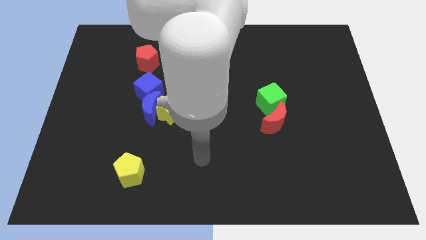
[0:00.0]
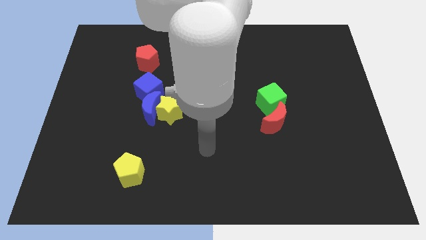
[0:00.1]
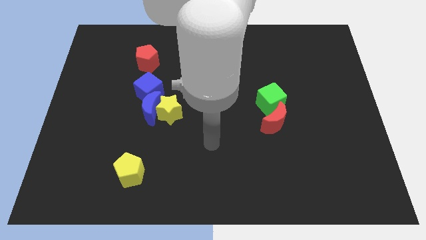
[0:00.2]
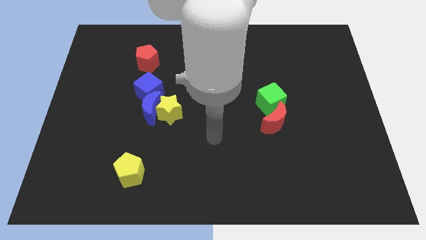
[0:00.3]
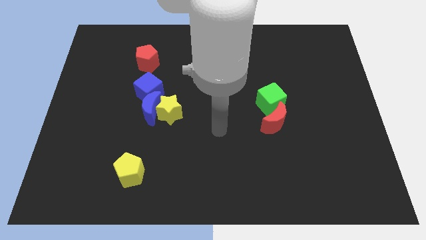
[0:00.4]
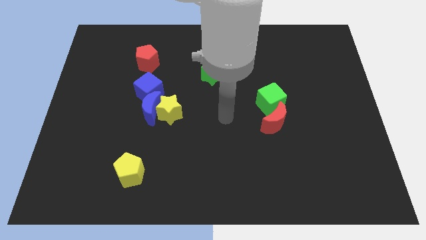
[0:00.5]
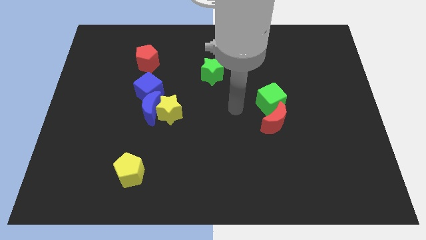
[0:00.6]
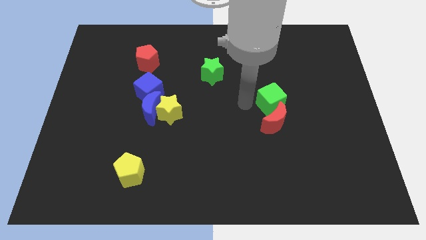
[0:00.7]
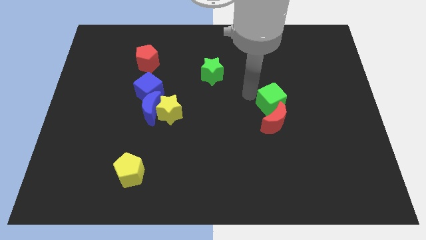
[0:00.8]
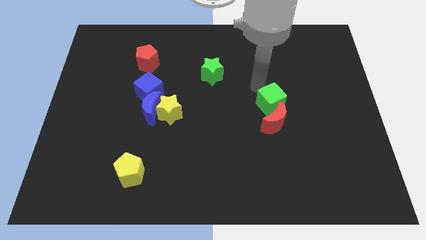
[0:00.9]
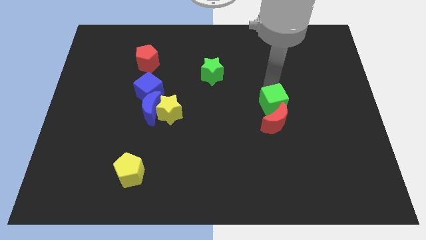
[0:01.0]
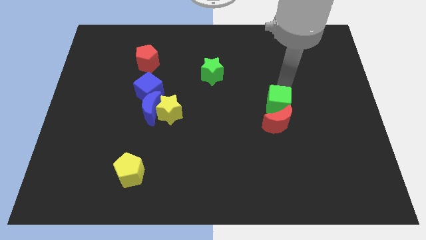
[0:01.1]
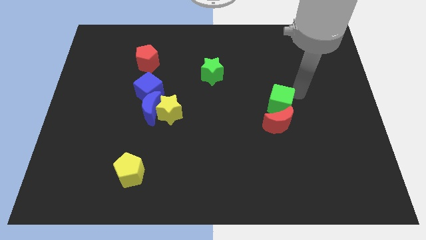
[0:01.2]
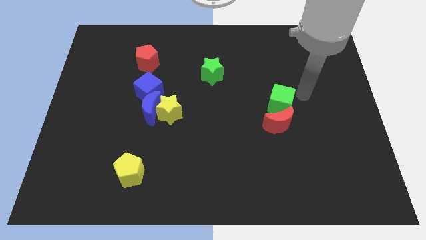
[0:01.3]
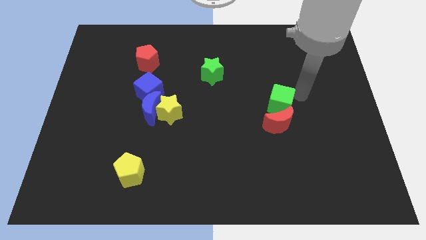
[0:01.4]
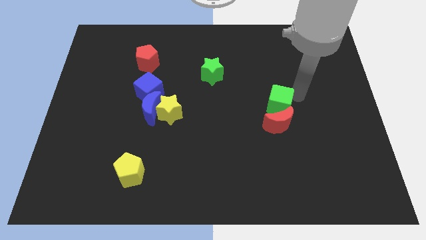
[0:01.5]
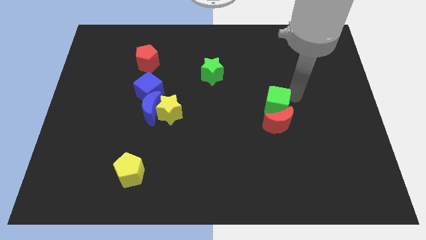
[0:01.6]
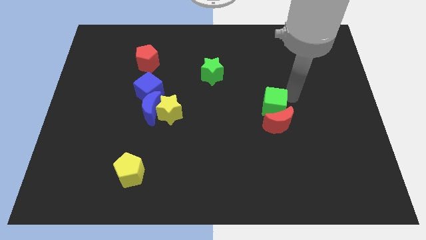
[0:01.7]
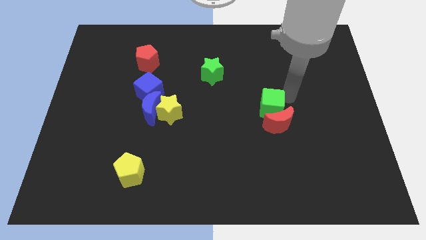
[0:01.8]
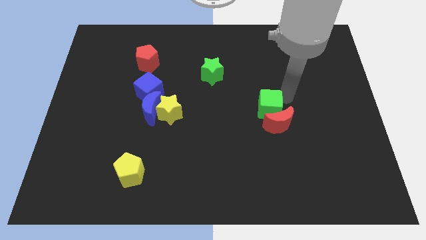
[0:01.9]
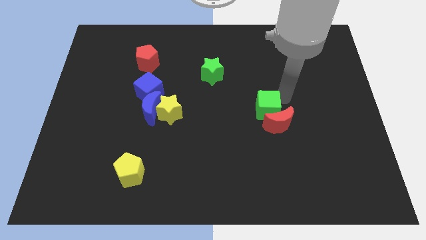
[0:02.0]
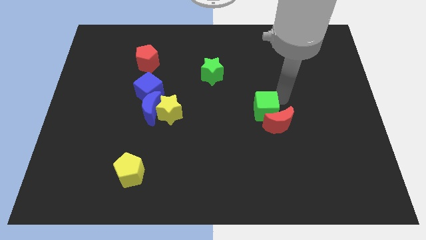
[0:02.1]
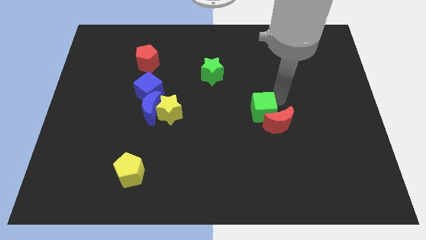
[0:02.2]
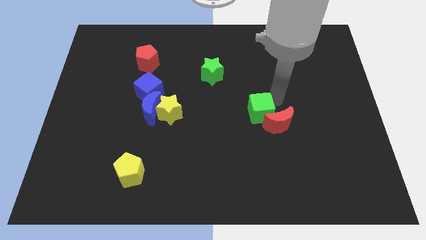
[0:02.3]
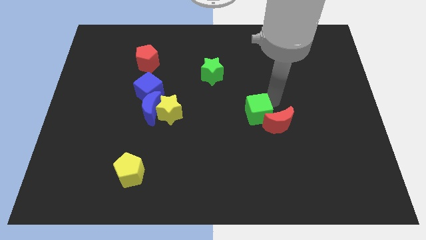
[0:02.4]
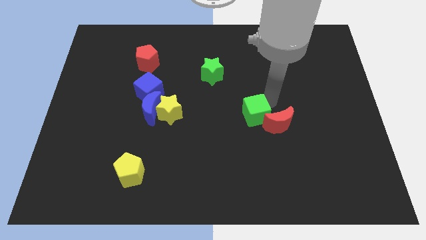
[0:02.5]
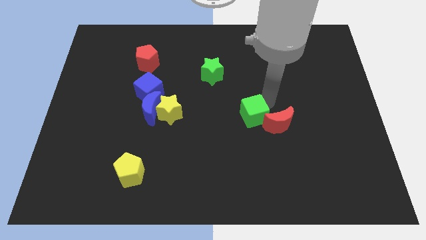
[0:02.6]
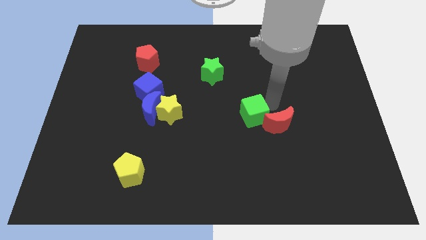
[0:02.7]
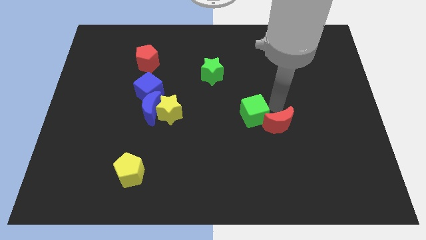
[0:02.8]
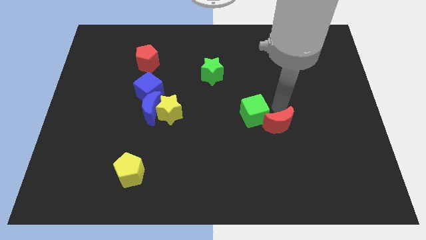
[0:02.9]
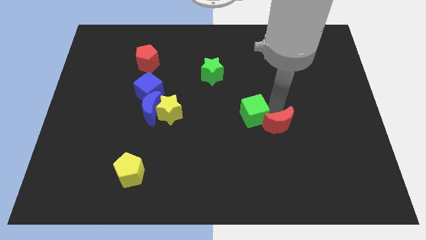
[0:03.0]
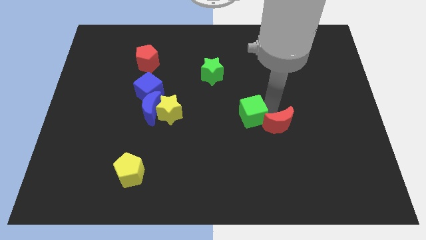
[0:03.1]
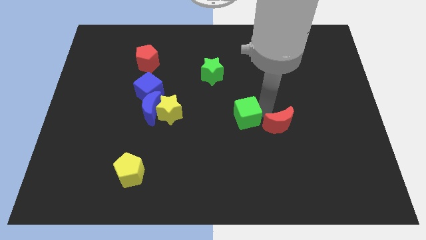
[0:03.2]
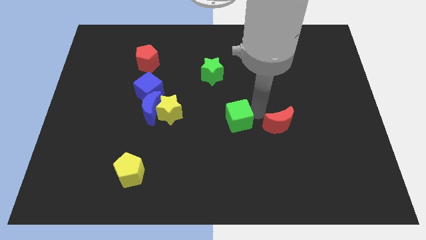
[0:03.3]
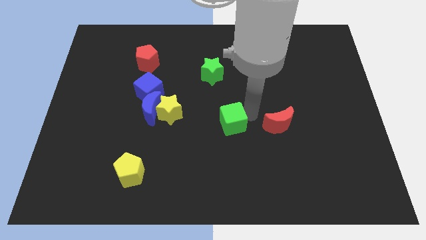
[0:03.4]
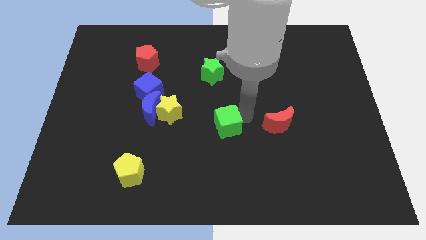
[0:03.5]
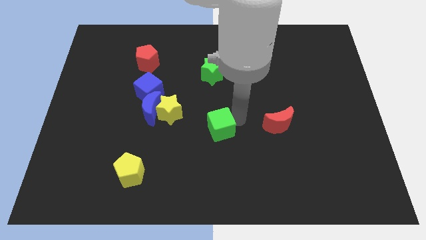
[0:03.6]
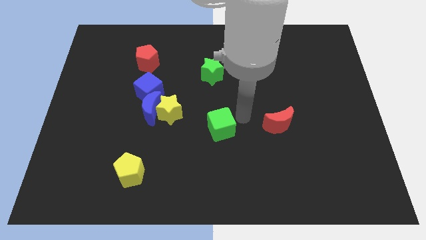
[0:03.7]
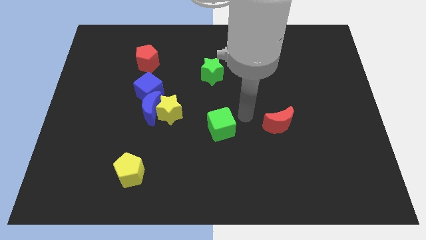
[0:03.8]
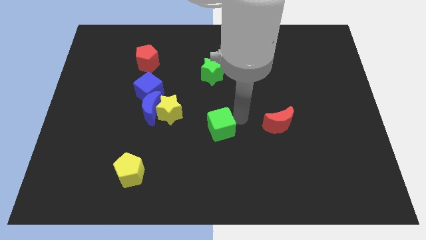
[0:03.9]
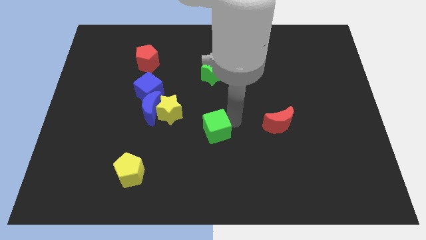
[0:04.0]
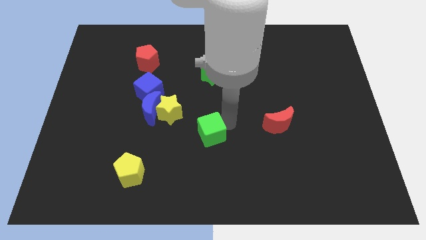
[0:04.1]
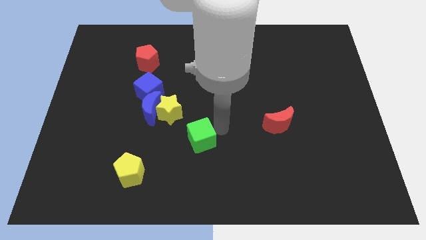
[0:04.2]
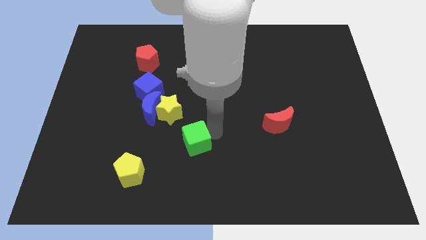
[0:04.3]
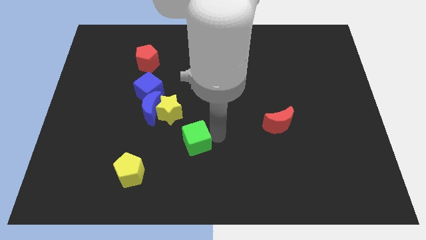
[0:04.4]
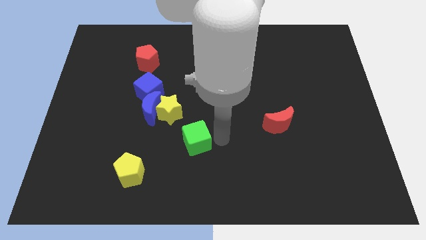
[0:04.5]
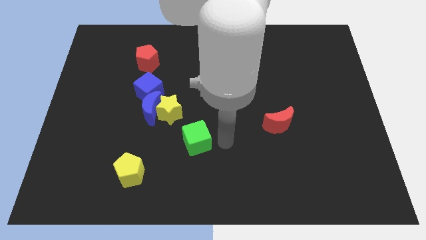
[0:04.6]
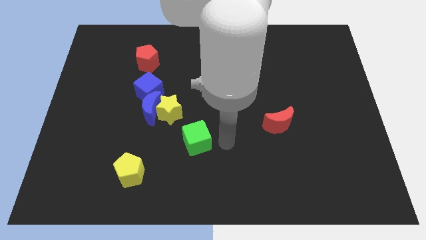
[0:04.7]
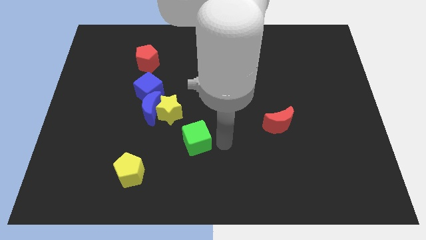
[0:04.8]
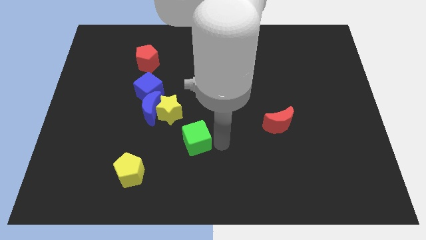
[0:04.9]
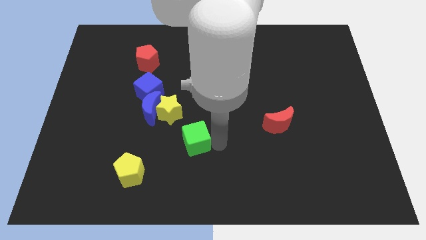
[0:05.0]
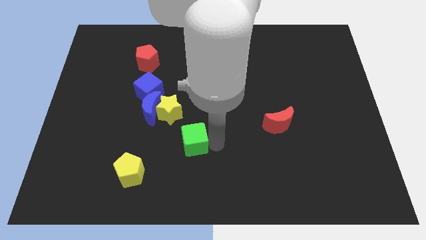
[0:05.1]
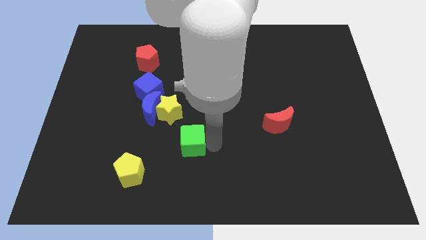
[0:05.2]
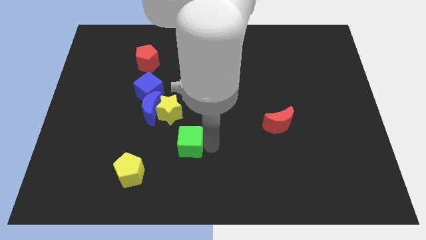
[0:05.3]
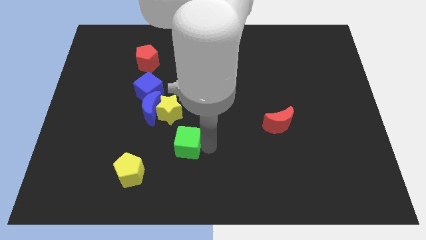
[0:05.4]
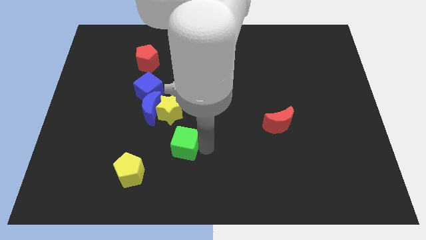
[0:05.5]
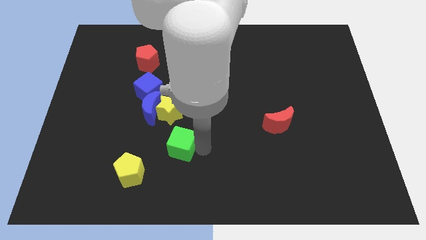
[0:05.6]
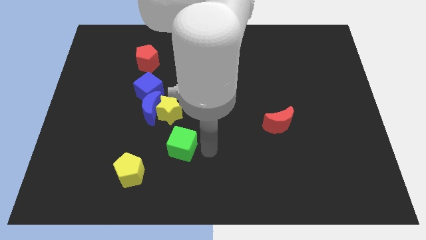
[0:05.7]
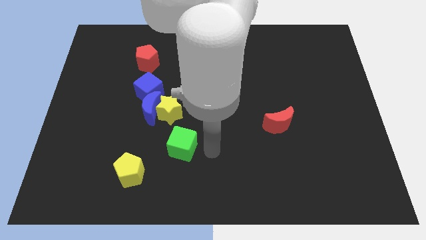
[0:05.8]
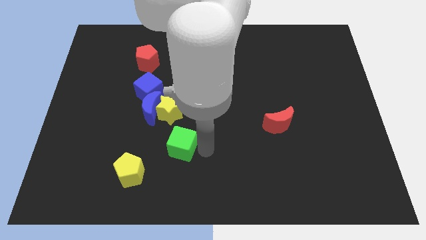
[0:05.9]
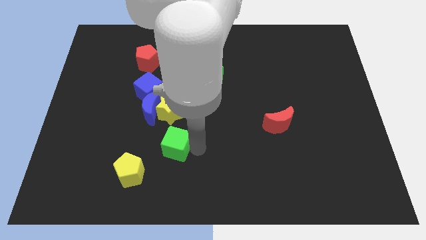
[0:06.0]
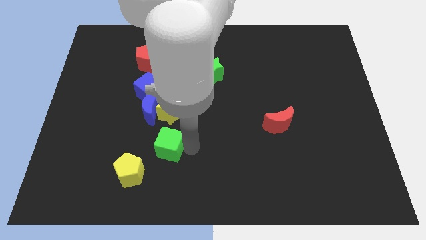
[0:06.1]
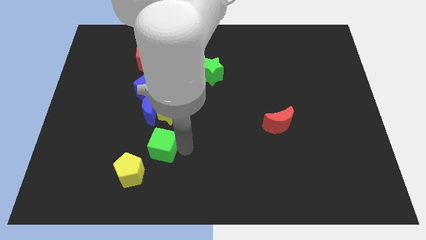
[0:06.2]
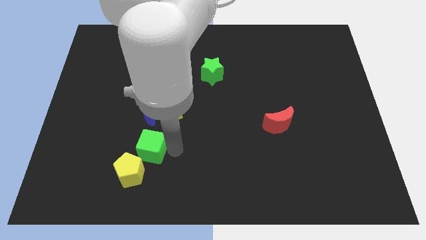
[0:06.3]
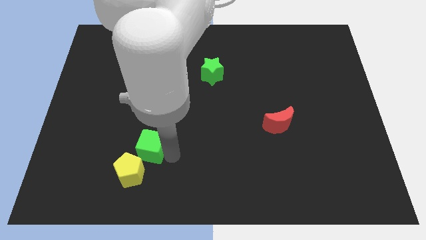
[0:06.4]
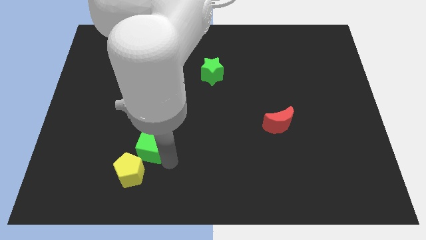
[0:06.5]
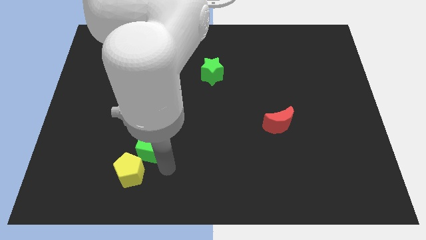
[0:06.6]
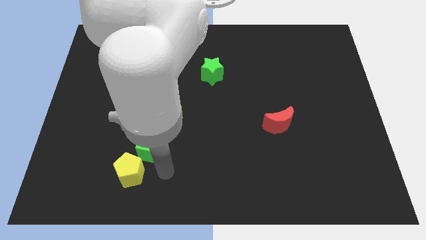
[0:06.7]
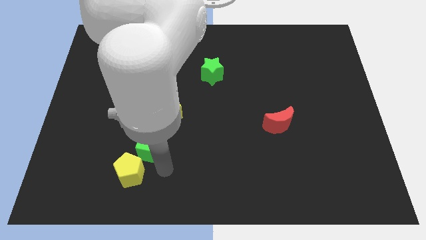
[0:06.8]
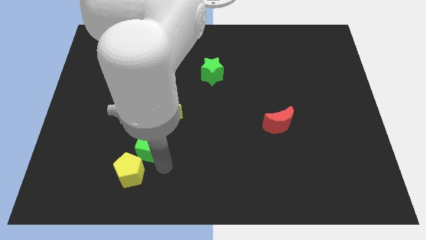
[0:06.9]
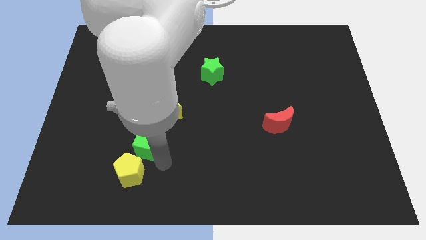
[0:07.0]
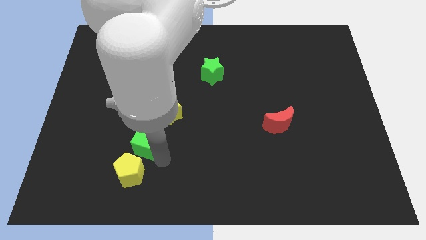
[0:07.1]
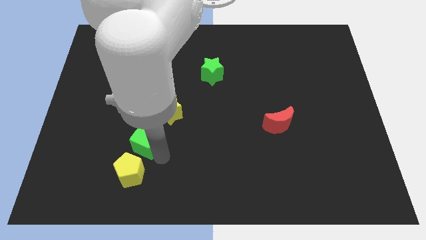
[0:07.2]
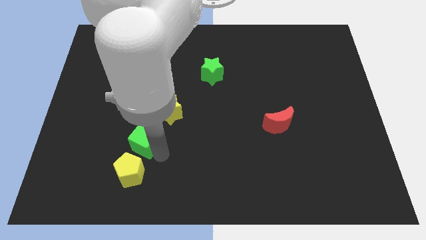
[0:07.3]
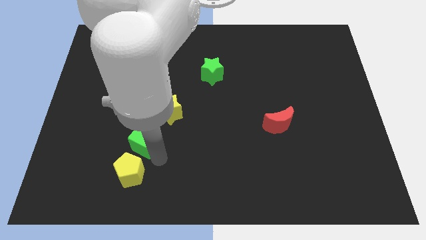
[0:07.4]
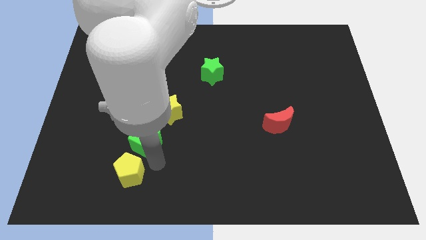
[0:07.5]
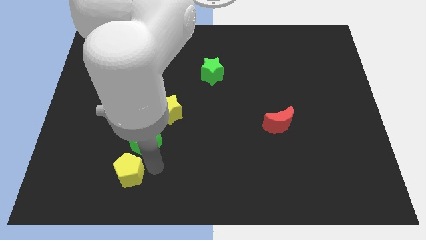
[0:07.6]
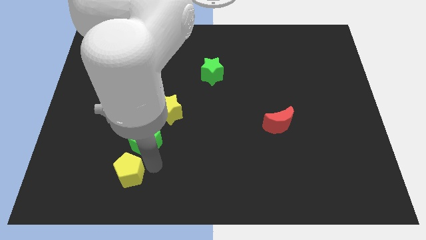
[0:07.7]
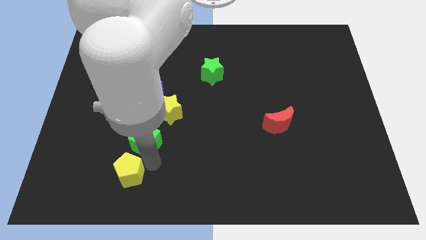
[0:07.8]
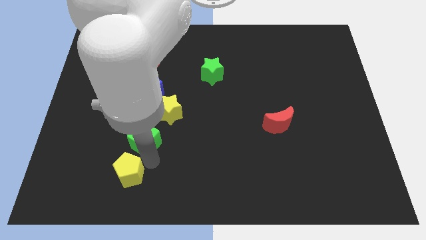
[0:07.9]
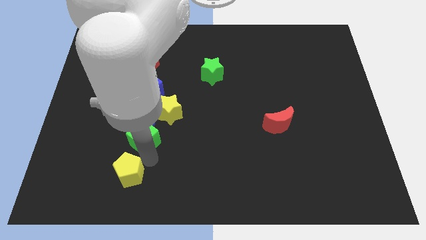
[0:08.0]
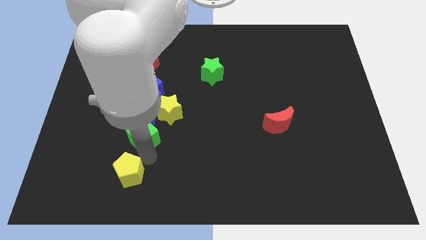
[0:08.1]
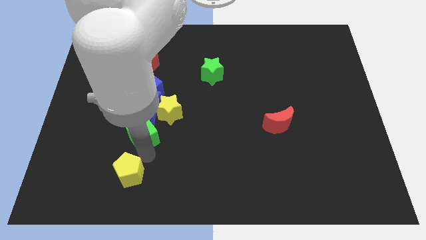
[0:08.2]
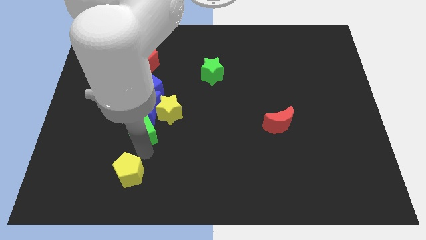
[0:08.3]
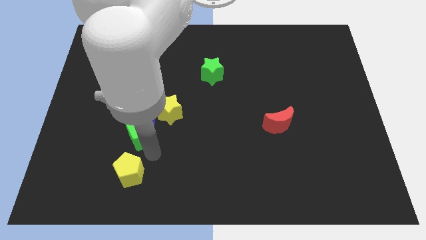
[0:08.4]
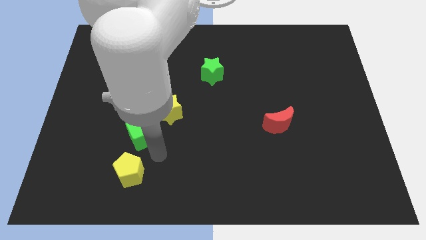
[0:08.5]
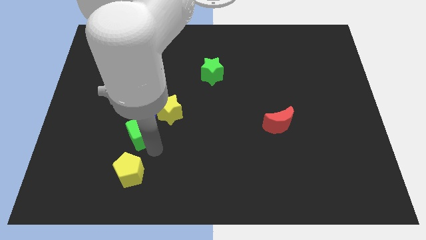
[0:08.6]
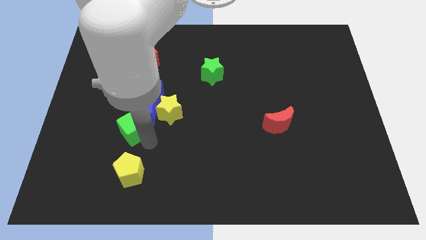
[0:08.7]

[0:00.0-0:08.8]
slide the green cube just left of the yellow star
